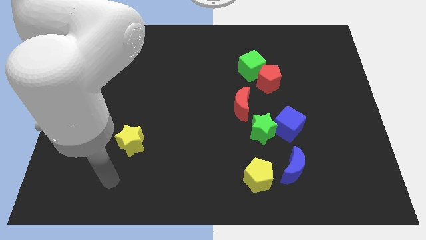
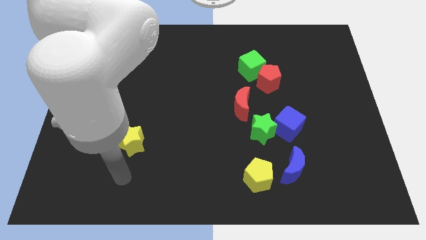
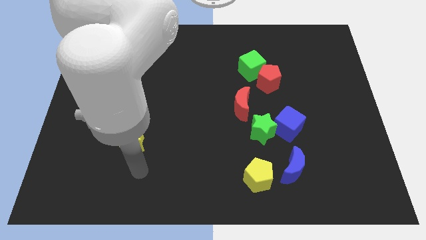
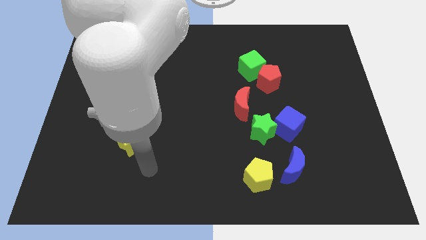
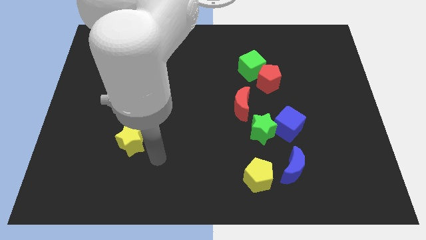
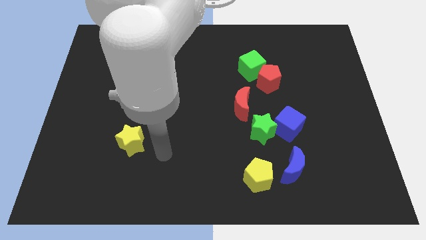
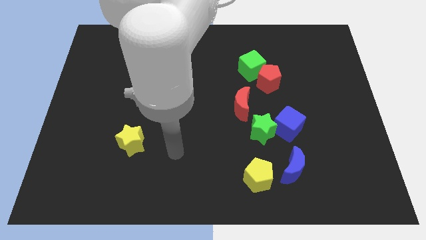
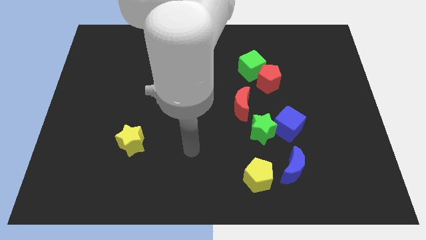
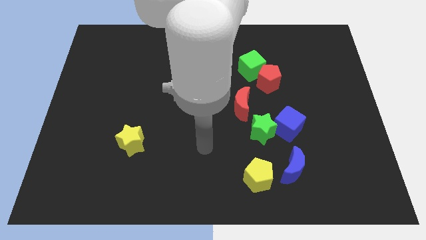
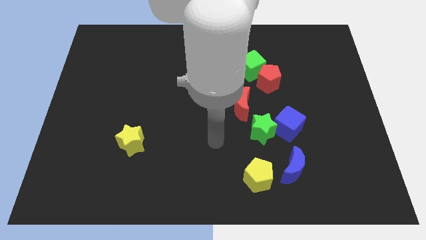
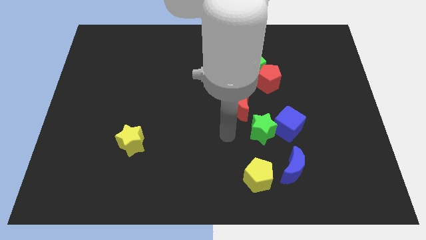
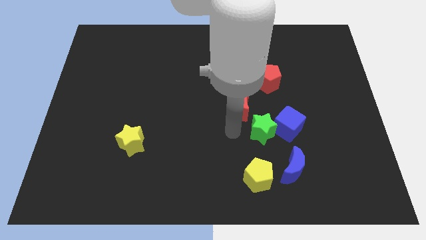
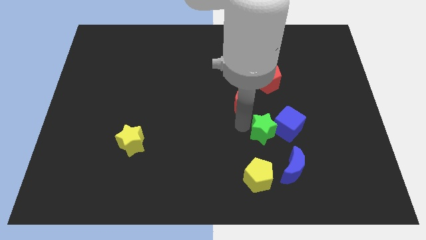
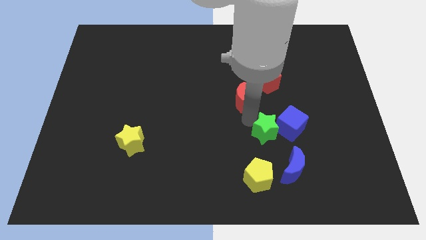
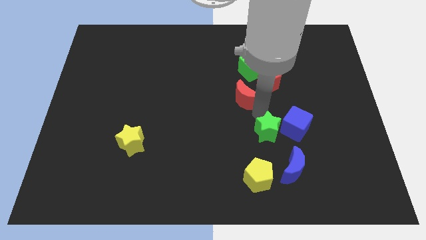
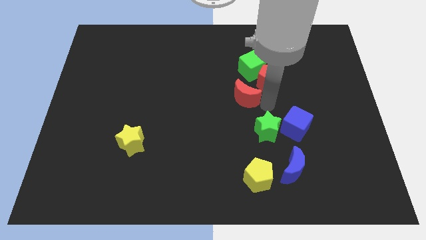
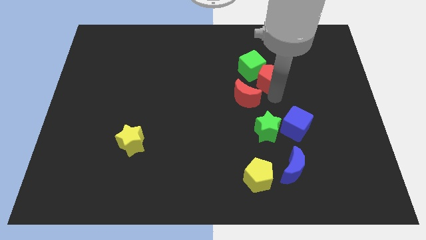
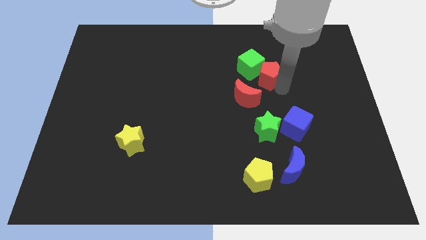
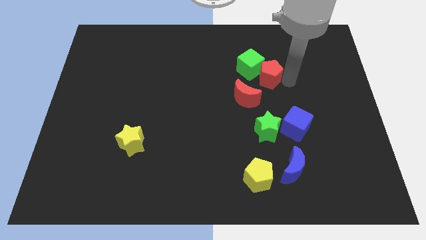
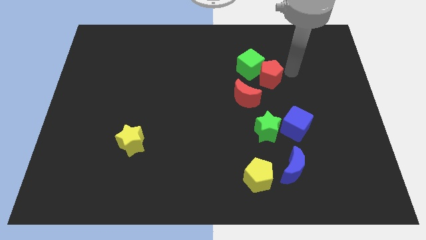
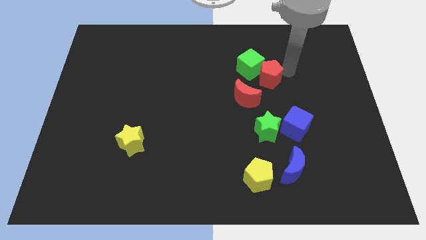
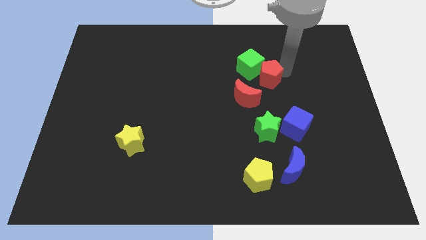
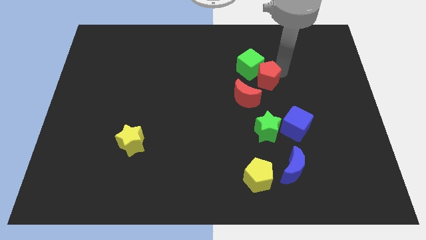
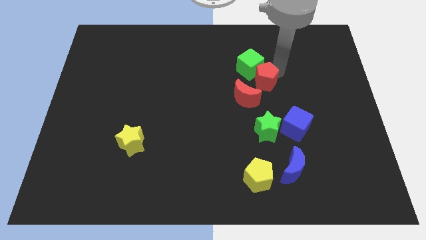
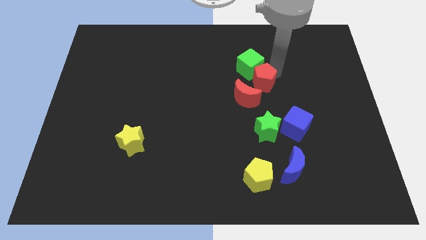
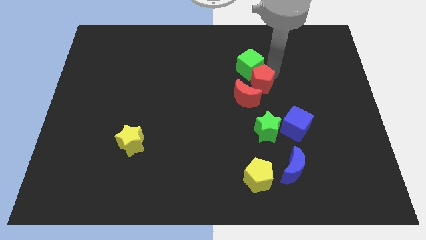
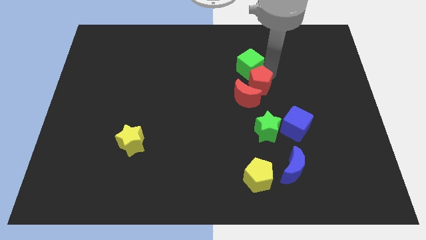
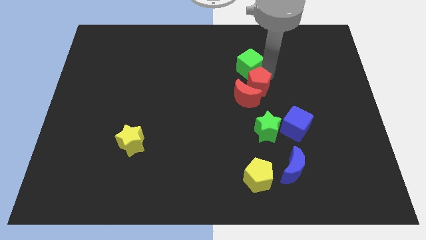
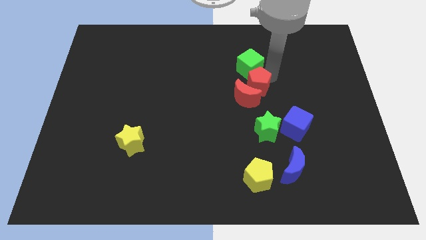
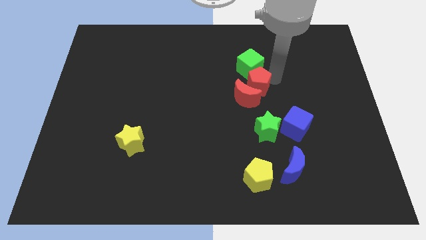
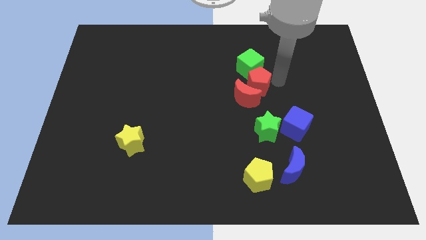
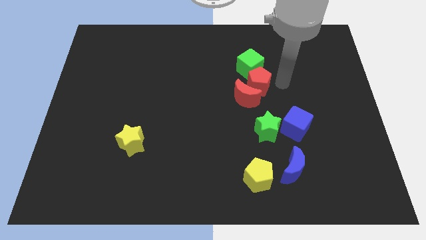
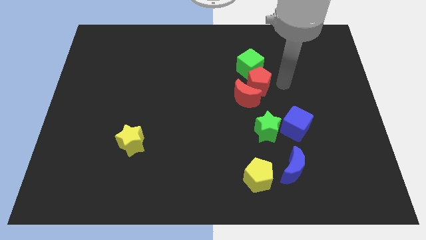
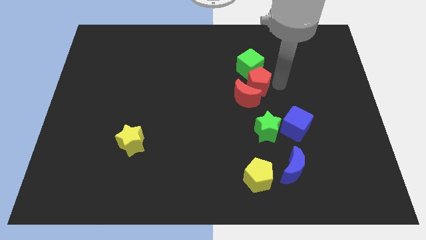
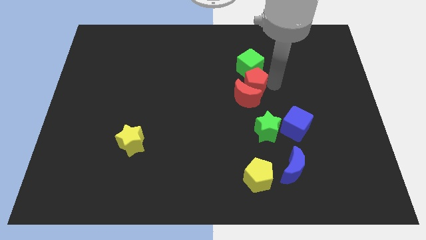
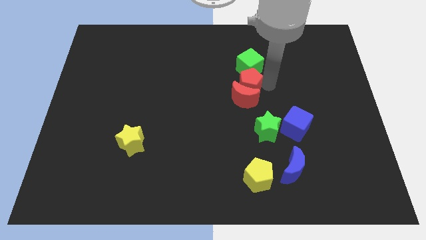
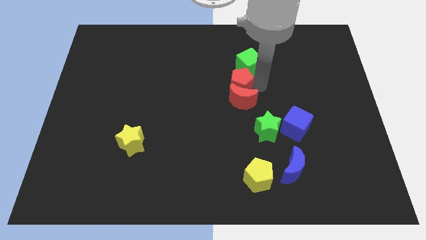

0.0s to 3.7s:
slightly slide the red pentagon left

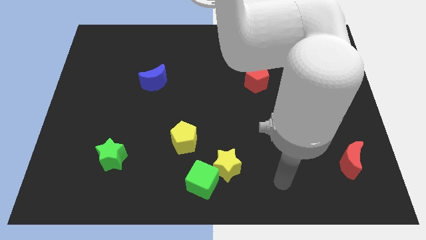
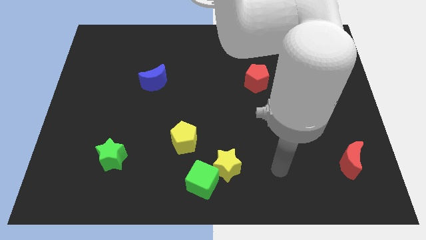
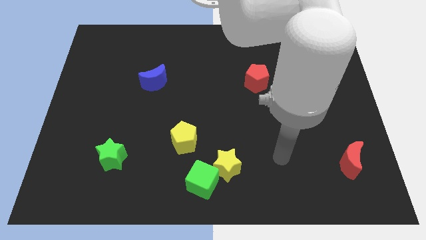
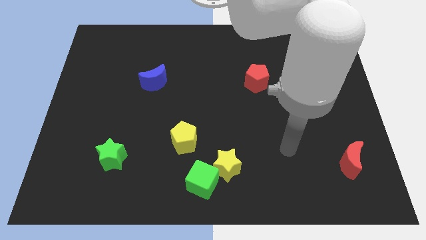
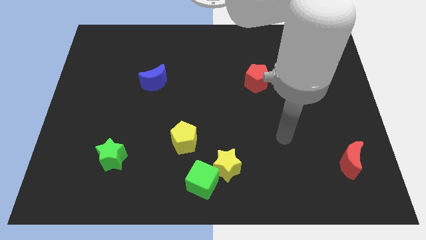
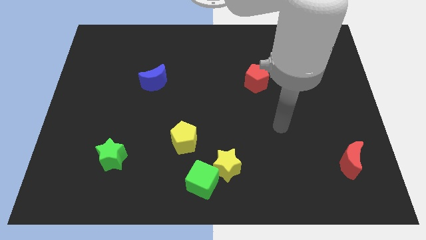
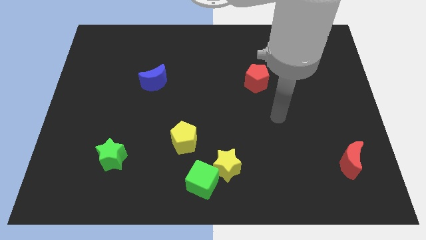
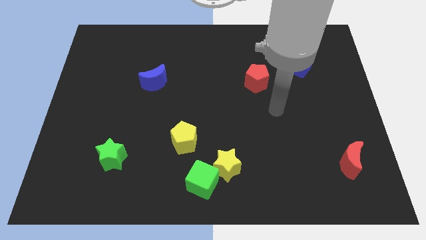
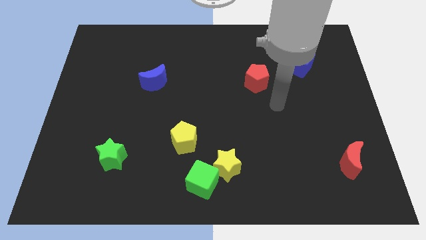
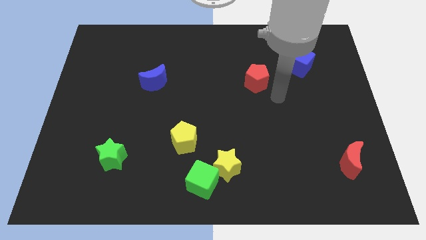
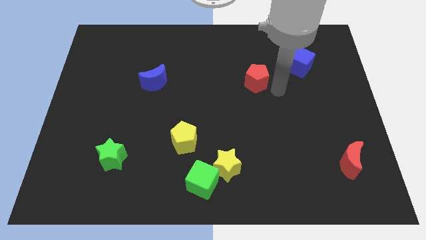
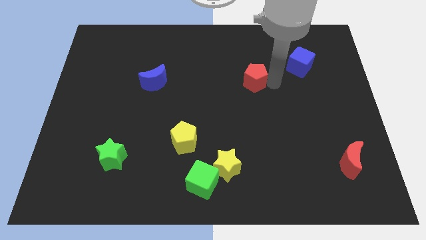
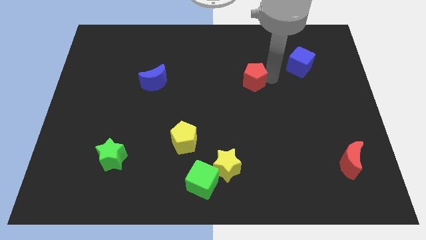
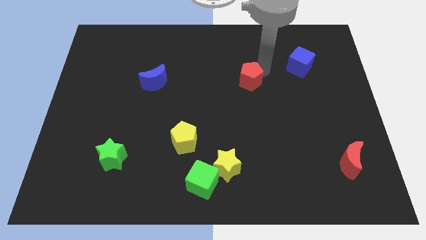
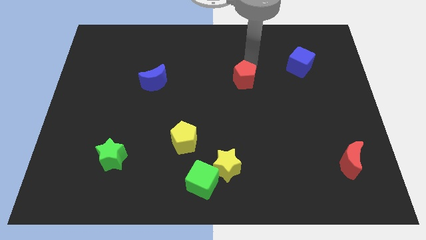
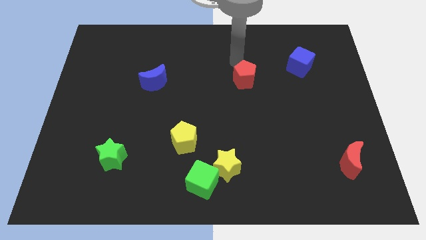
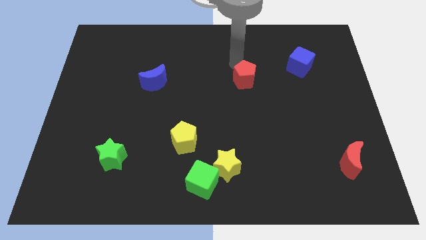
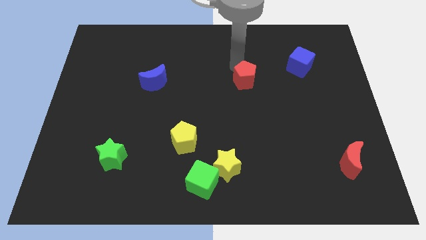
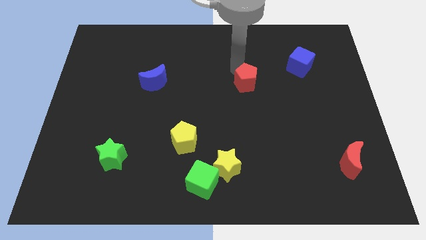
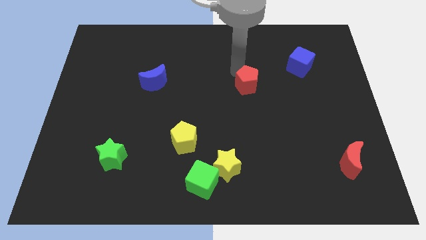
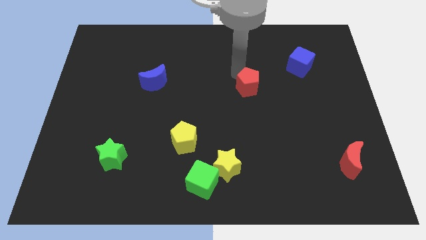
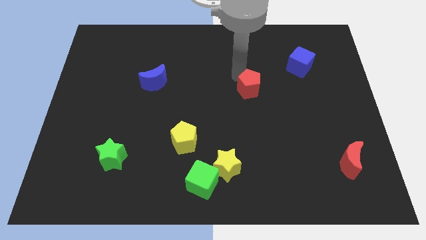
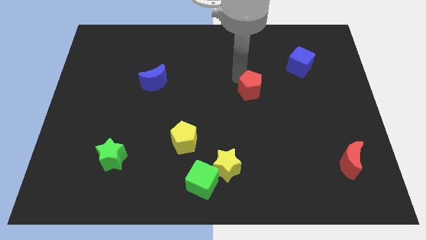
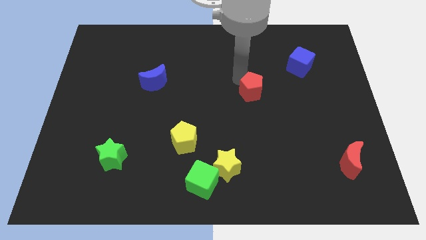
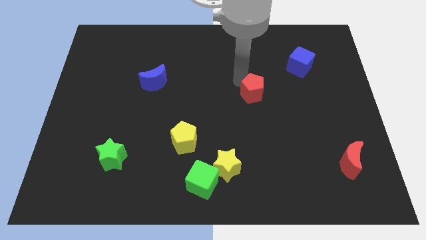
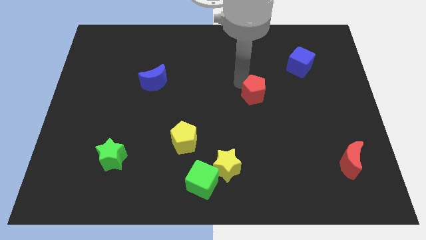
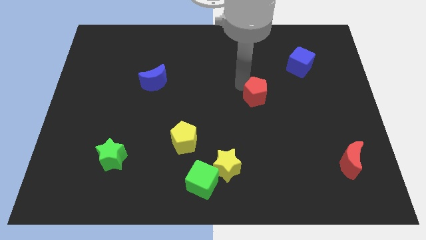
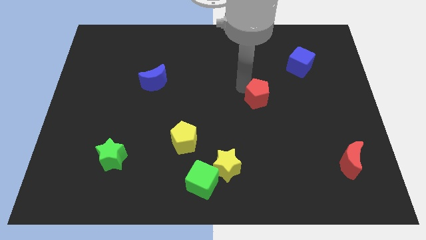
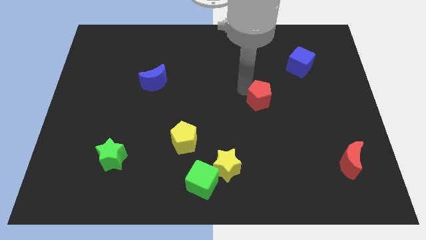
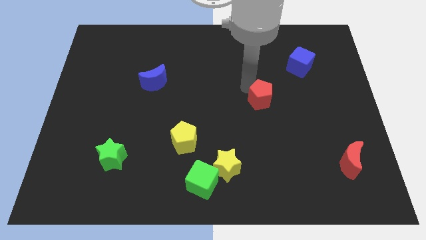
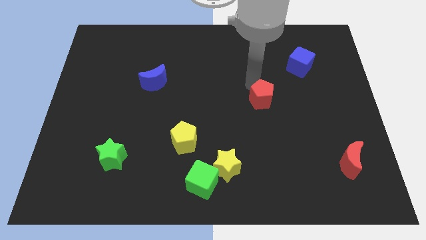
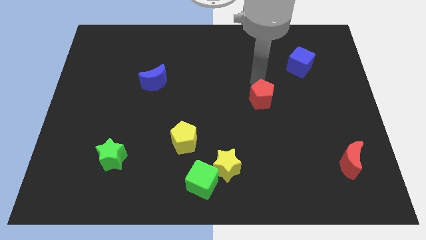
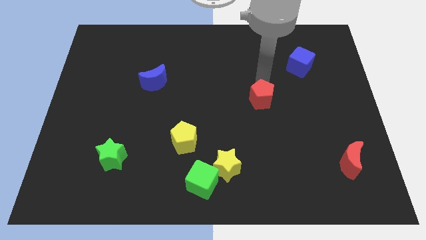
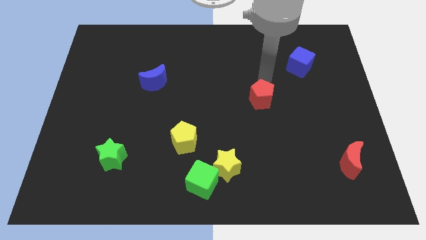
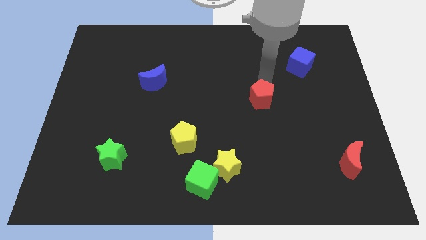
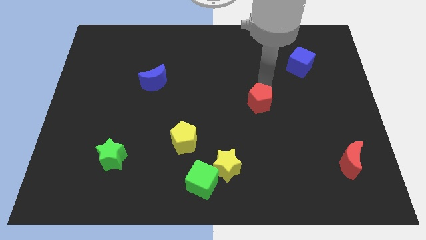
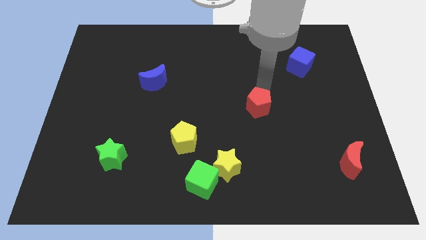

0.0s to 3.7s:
move the red pentagon down slightly

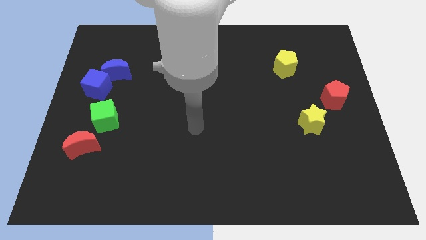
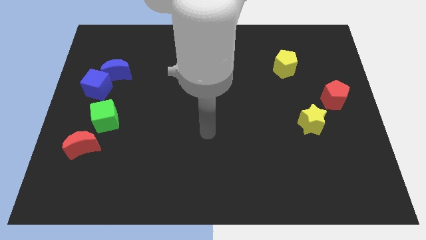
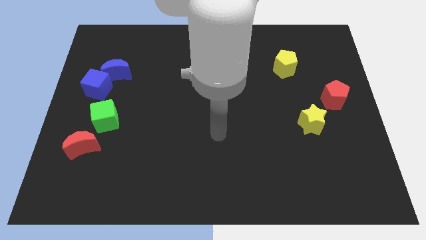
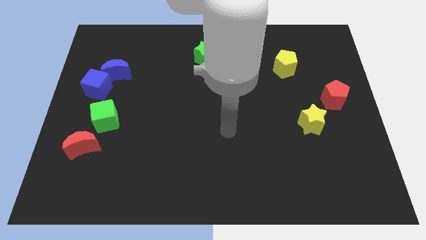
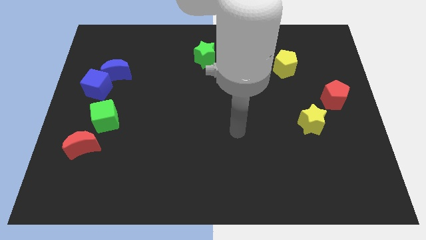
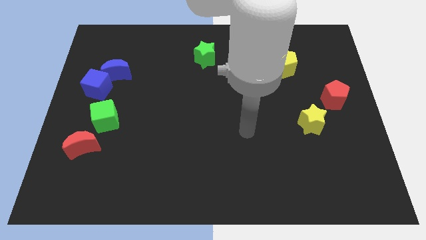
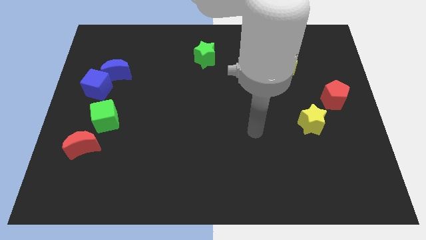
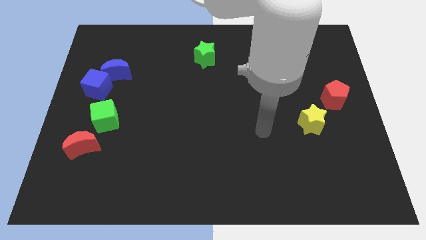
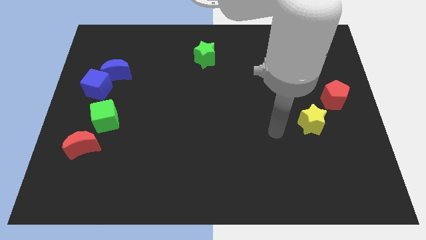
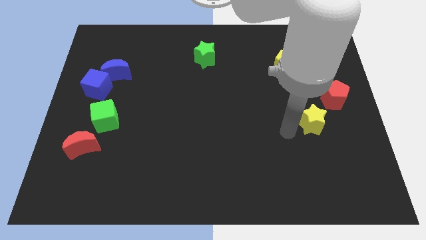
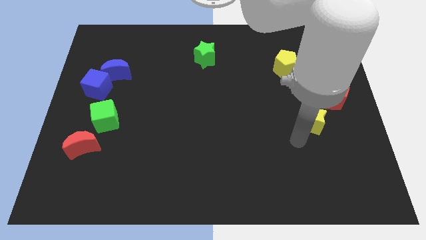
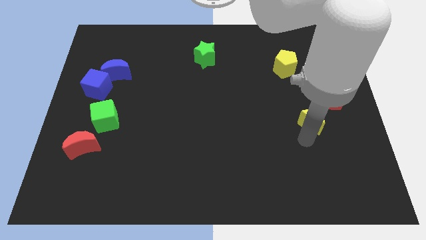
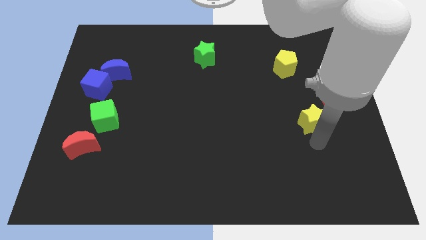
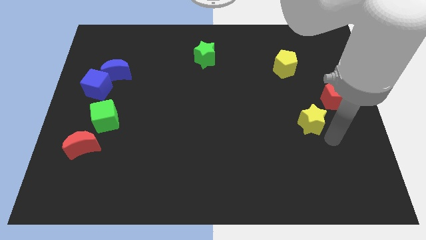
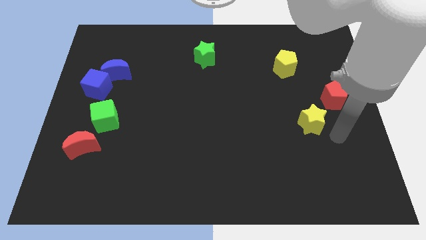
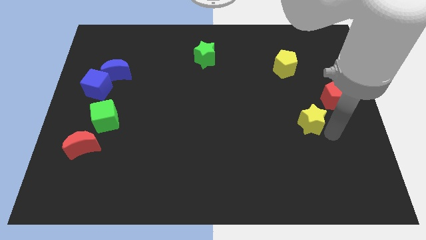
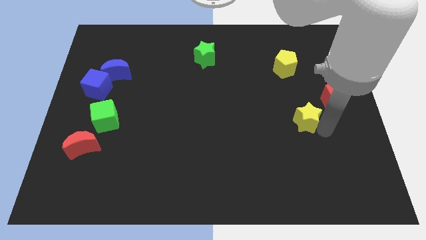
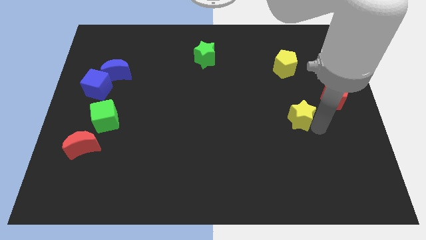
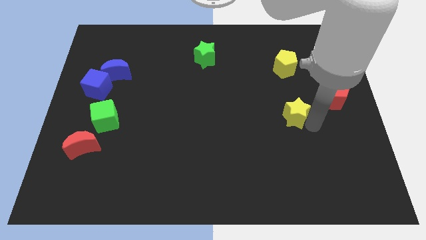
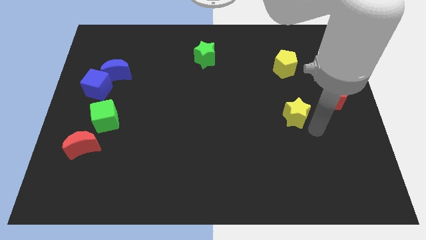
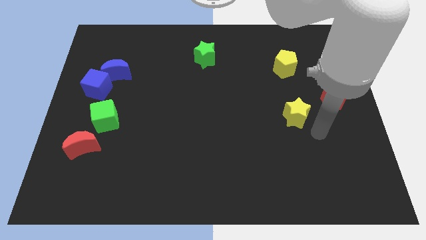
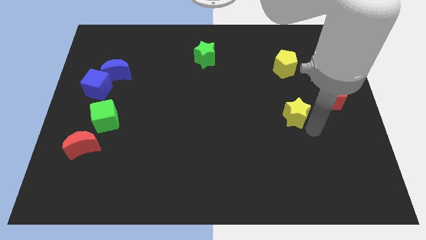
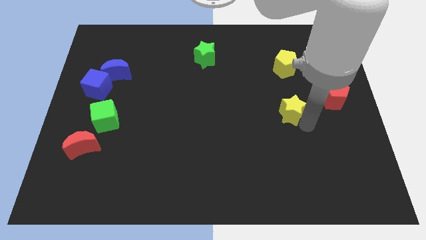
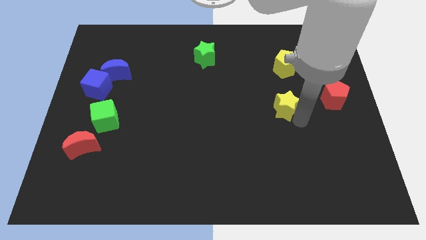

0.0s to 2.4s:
move the yellow star upwards and left somewhat
